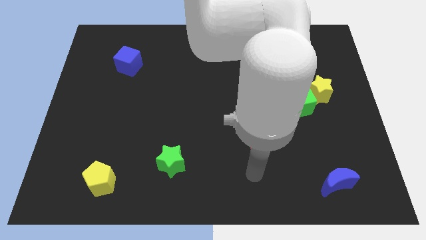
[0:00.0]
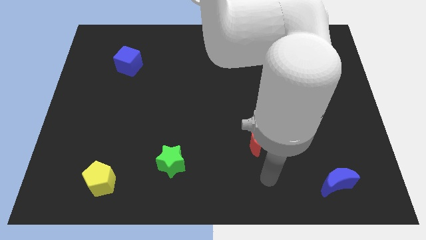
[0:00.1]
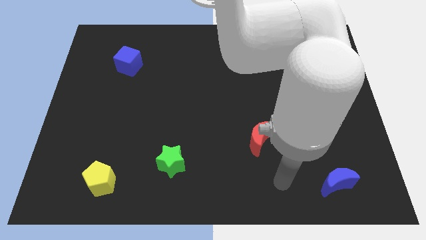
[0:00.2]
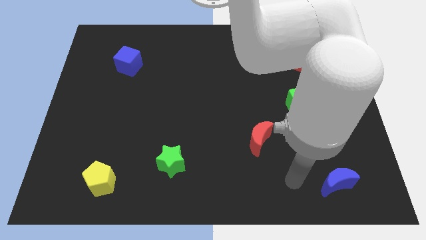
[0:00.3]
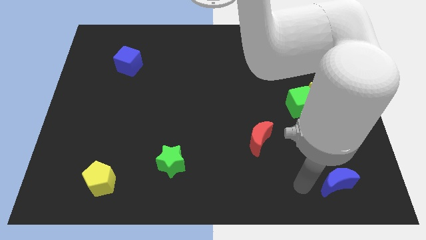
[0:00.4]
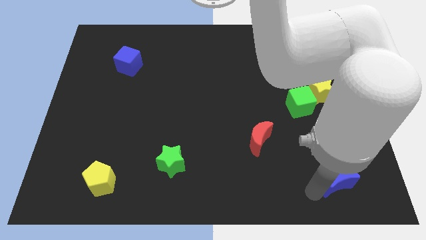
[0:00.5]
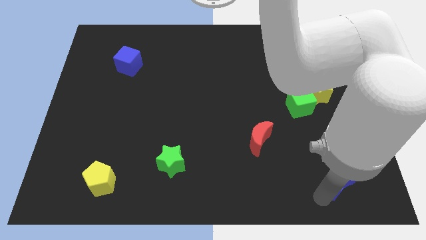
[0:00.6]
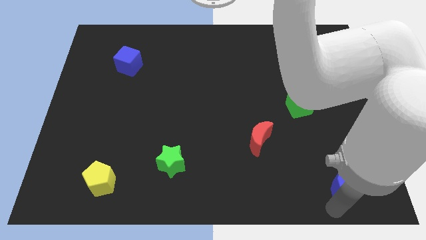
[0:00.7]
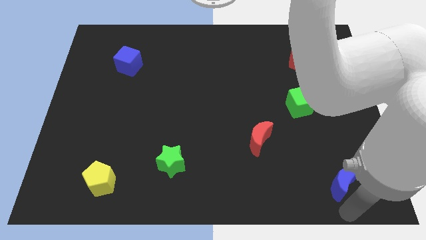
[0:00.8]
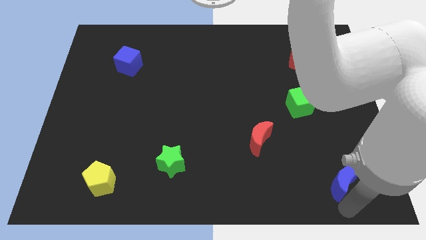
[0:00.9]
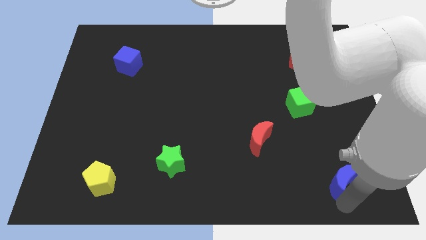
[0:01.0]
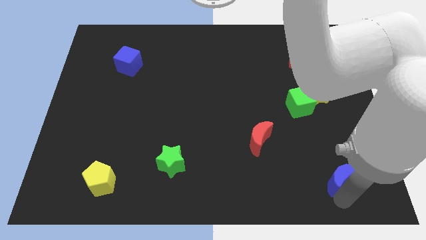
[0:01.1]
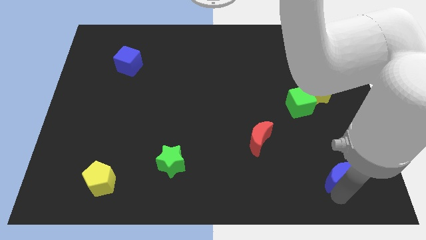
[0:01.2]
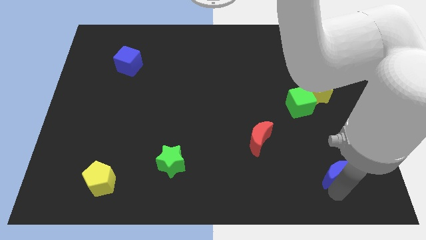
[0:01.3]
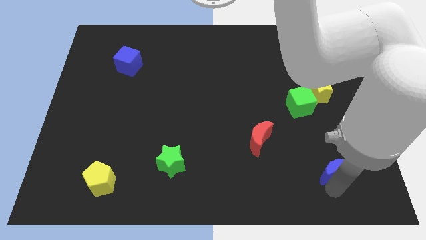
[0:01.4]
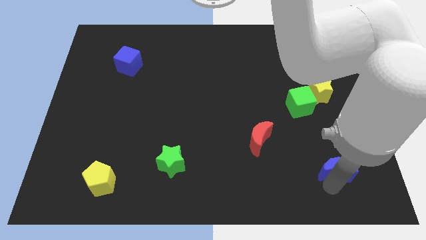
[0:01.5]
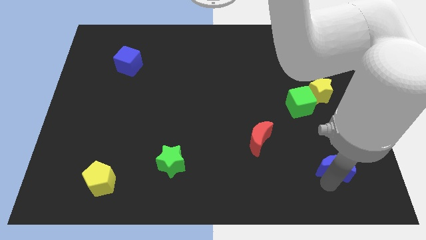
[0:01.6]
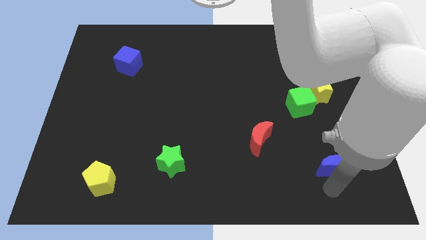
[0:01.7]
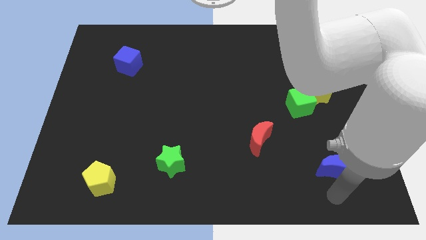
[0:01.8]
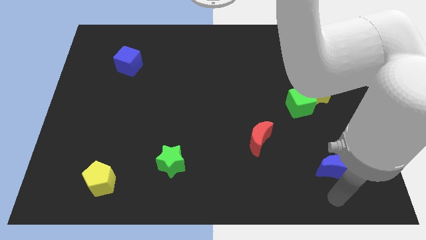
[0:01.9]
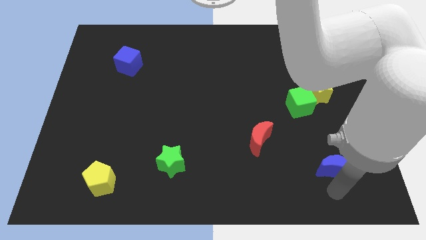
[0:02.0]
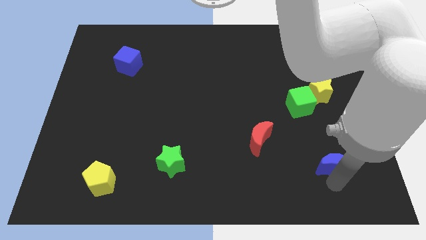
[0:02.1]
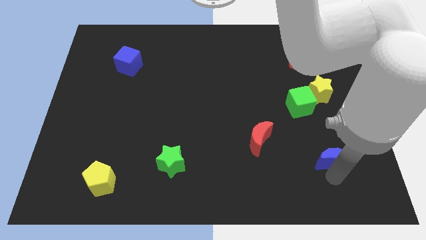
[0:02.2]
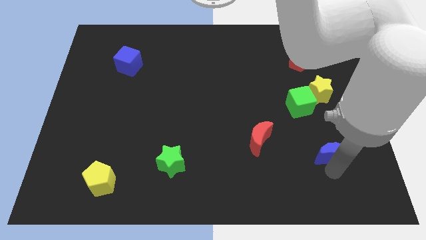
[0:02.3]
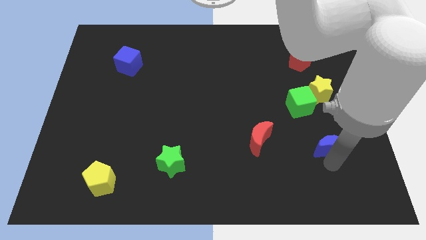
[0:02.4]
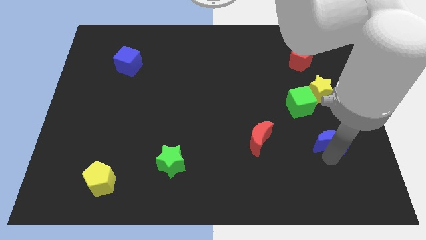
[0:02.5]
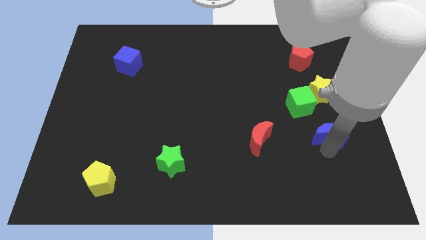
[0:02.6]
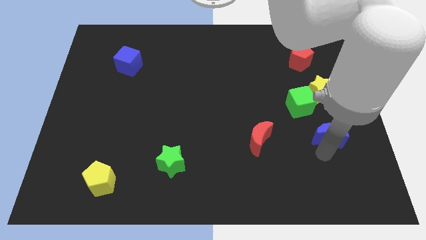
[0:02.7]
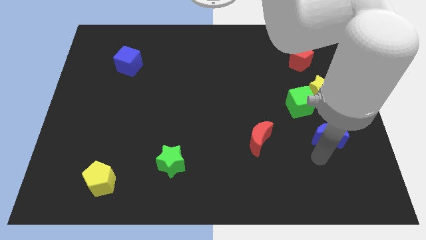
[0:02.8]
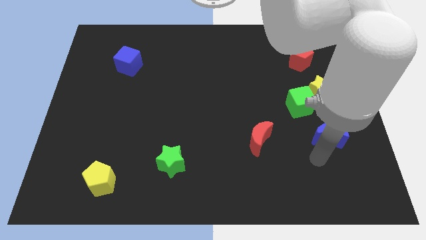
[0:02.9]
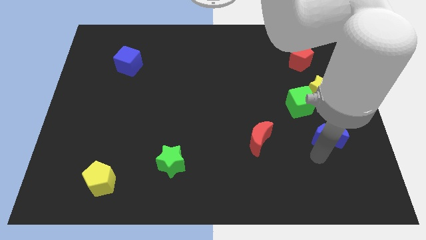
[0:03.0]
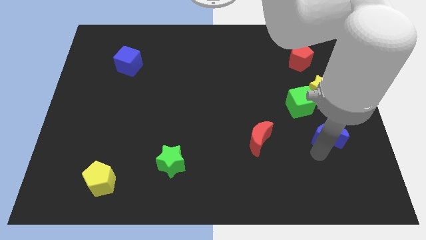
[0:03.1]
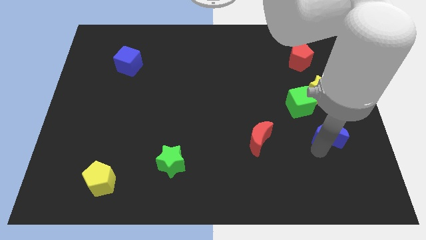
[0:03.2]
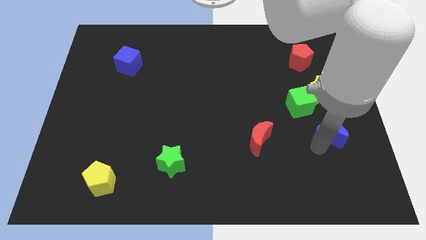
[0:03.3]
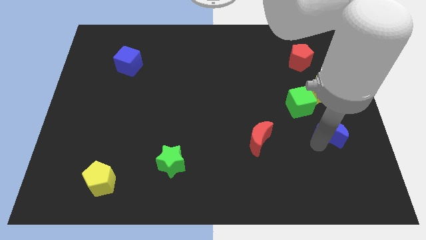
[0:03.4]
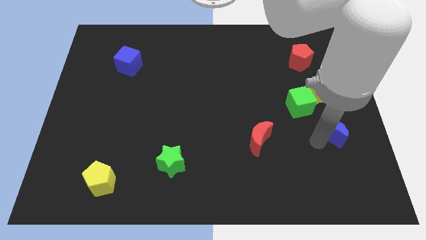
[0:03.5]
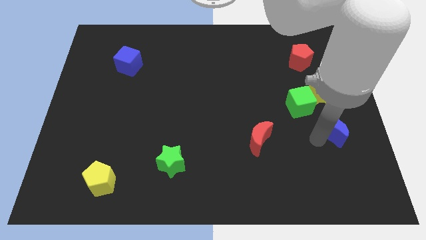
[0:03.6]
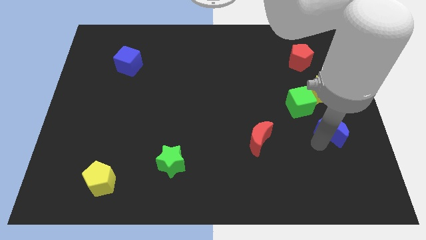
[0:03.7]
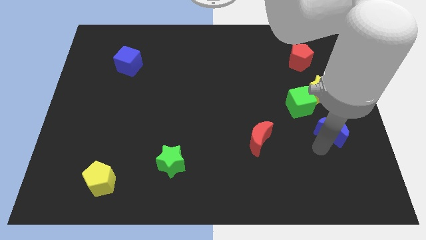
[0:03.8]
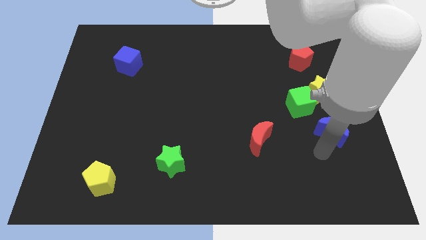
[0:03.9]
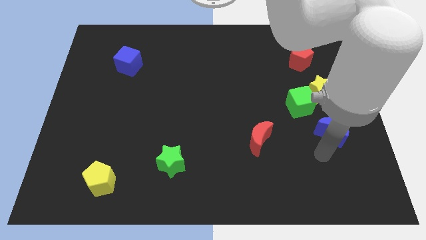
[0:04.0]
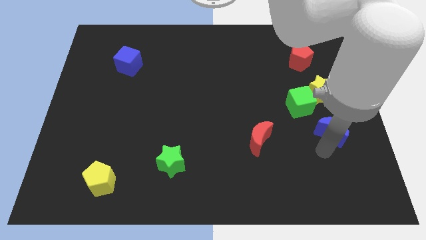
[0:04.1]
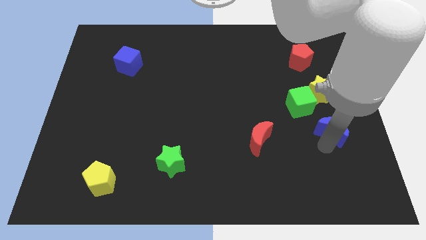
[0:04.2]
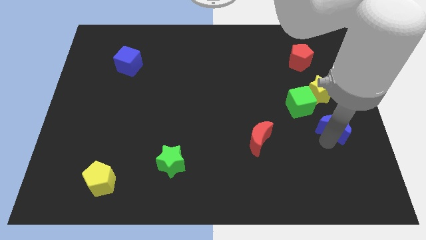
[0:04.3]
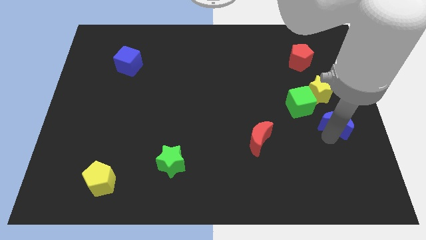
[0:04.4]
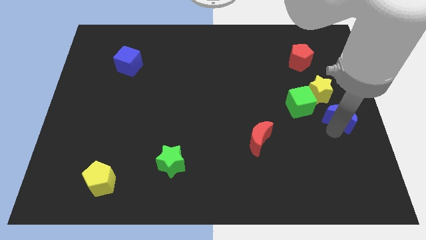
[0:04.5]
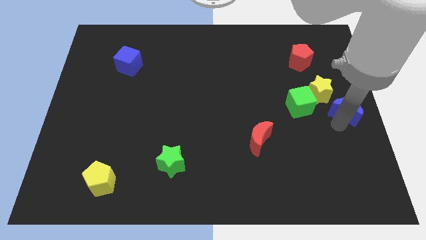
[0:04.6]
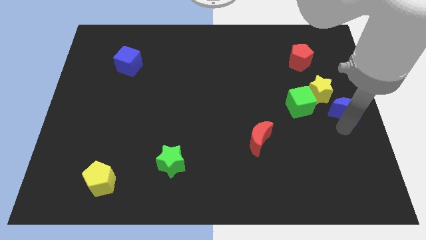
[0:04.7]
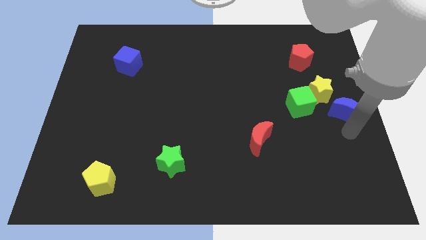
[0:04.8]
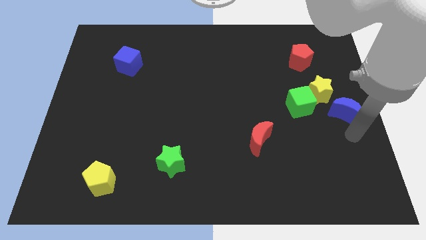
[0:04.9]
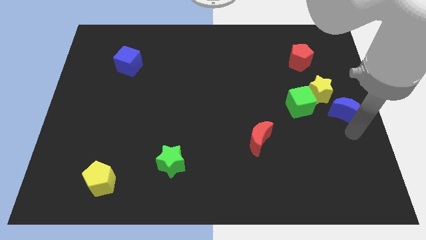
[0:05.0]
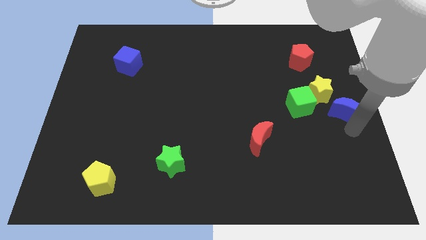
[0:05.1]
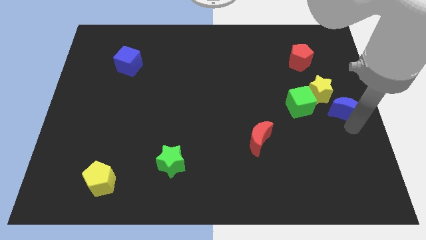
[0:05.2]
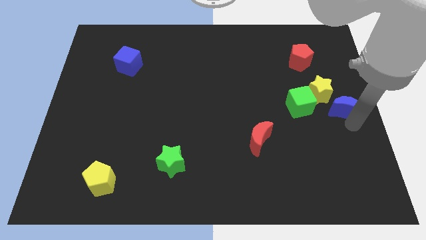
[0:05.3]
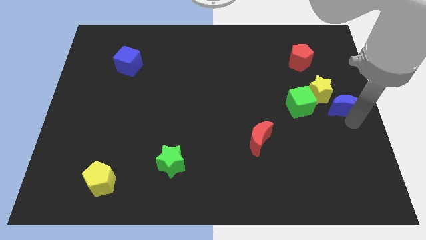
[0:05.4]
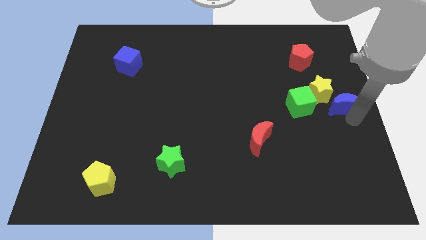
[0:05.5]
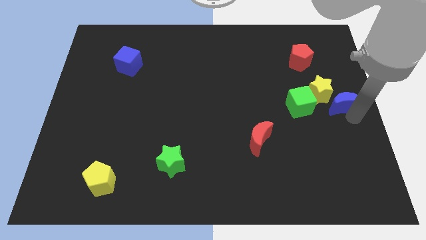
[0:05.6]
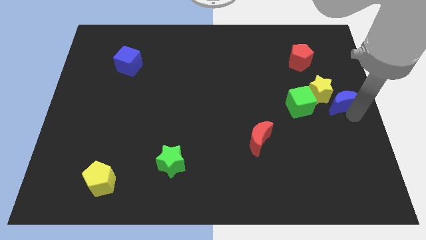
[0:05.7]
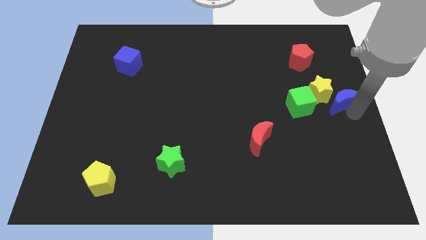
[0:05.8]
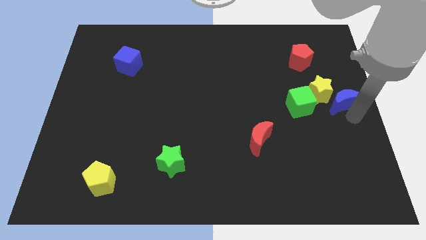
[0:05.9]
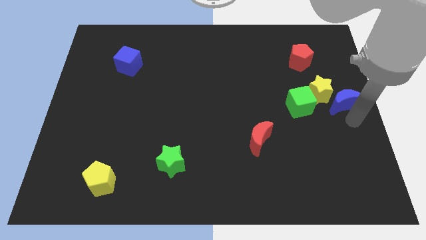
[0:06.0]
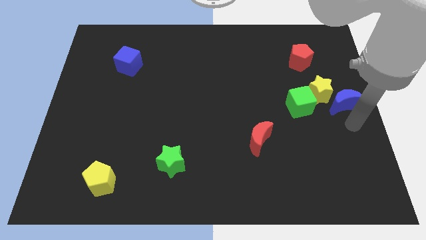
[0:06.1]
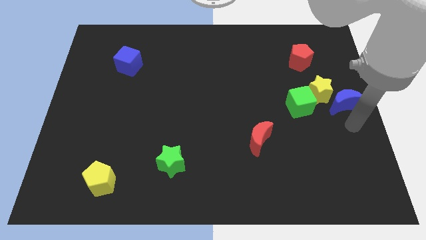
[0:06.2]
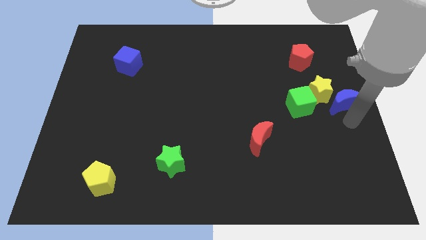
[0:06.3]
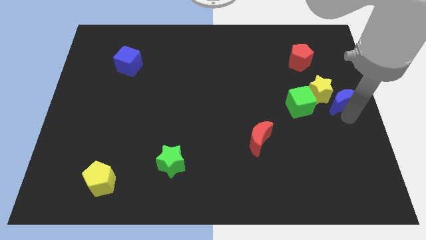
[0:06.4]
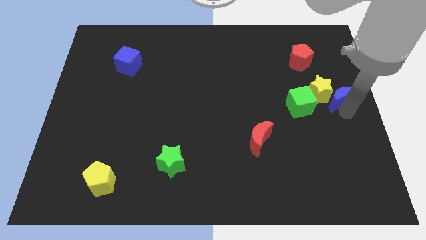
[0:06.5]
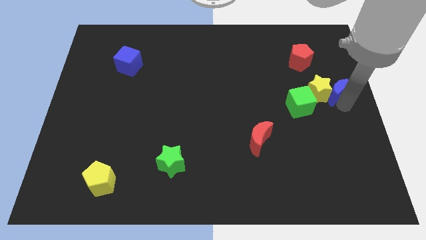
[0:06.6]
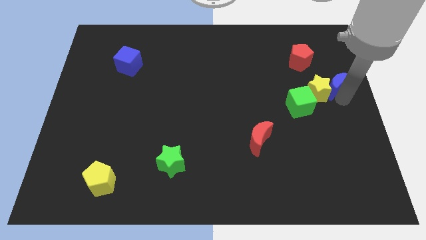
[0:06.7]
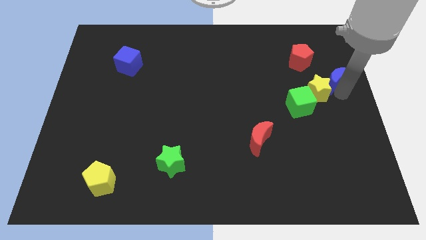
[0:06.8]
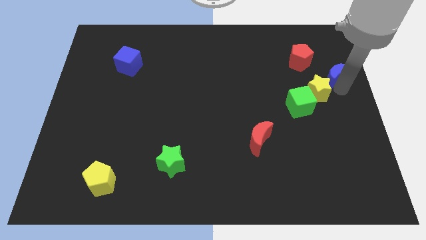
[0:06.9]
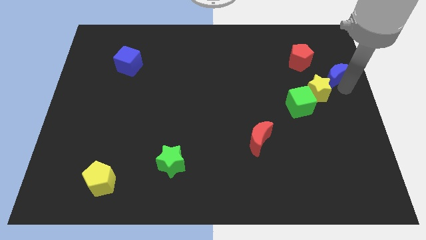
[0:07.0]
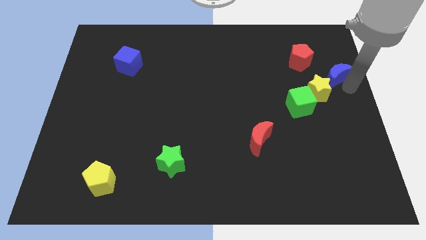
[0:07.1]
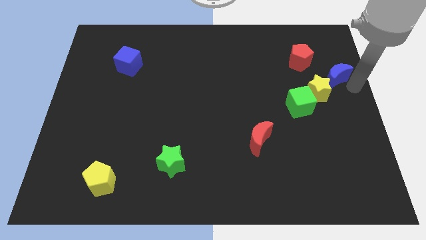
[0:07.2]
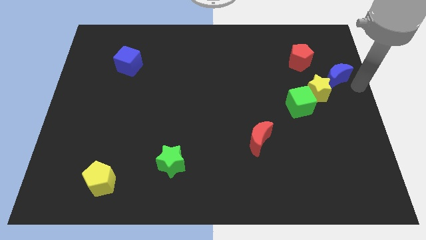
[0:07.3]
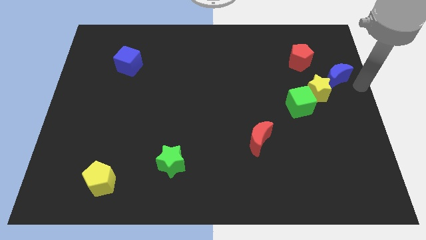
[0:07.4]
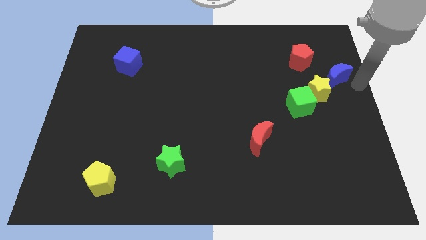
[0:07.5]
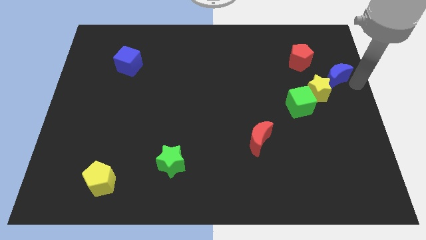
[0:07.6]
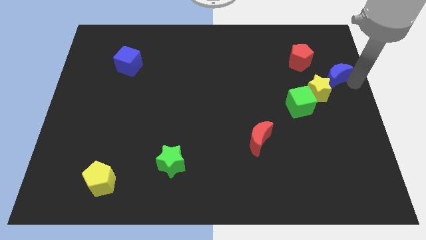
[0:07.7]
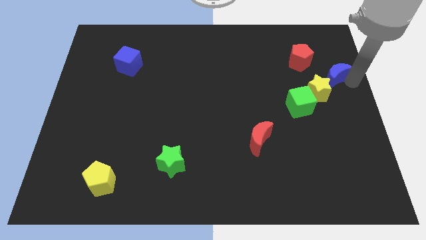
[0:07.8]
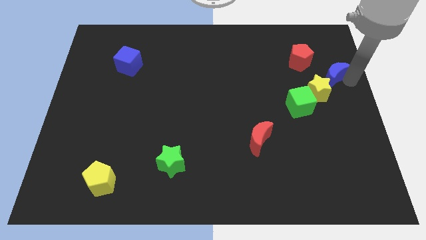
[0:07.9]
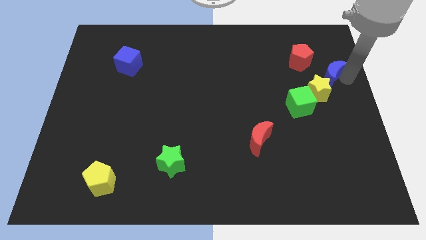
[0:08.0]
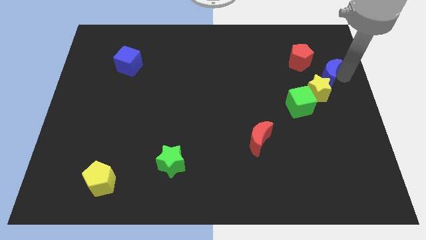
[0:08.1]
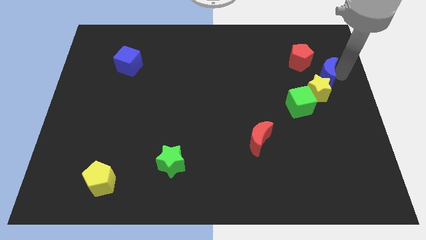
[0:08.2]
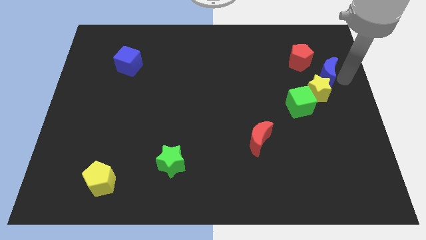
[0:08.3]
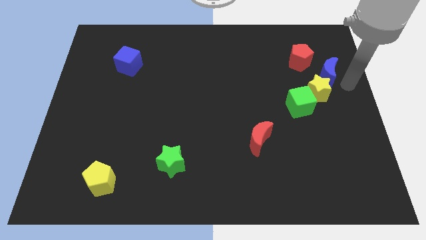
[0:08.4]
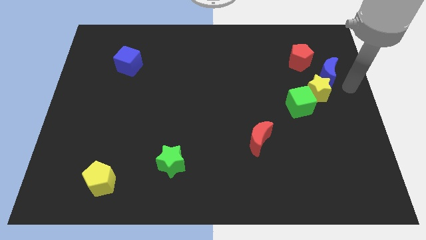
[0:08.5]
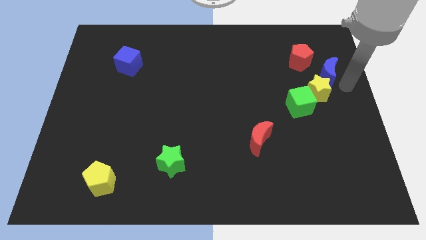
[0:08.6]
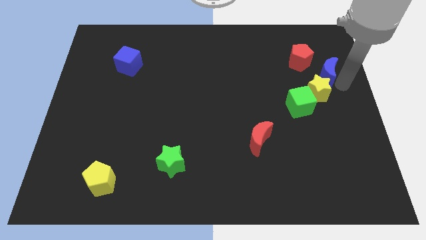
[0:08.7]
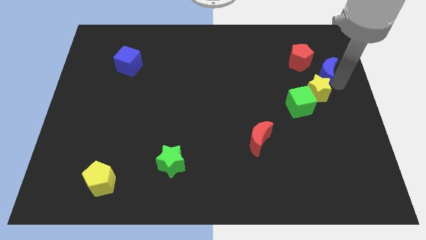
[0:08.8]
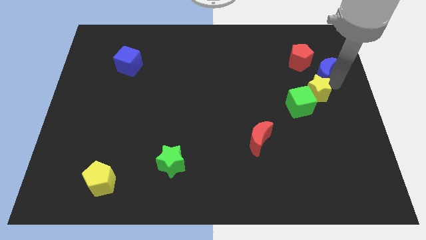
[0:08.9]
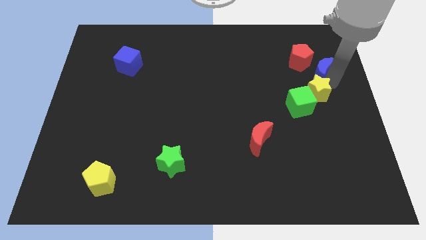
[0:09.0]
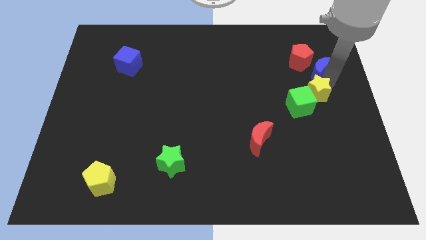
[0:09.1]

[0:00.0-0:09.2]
move the blue moon towards the red pentagon
